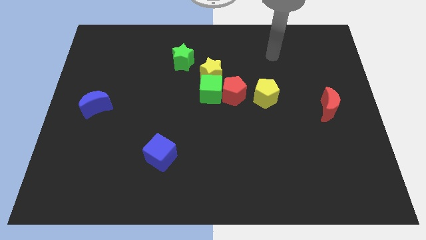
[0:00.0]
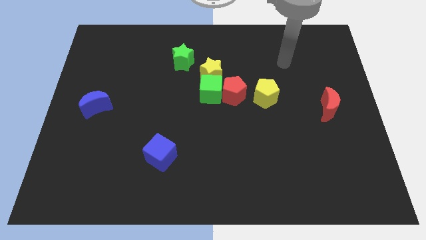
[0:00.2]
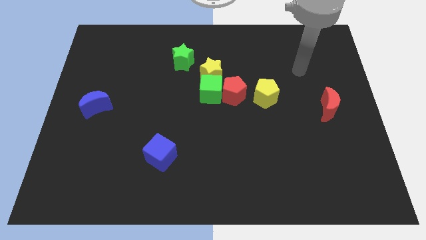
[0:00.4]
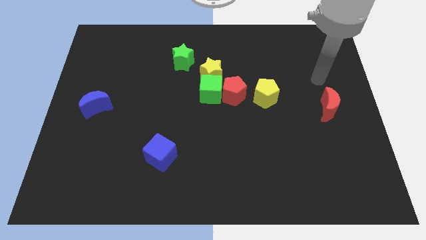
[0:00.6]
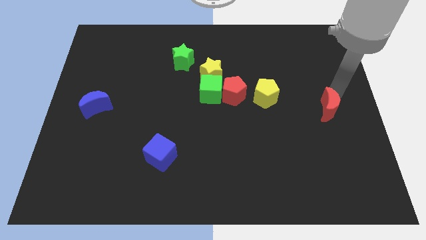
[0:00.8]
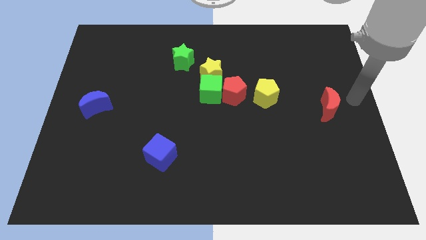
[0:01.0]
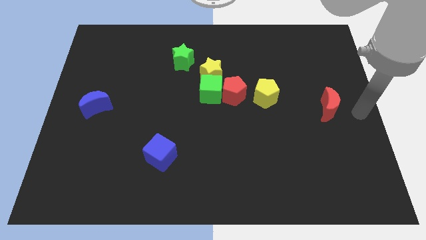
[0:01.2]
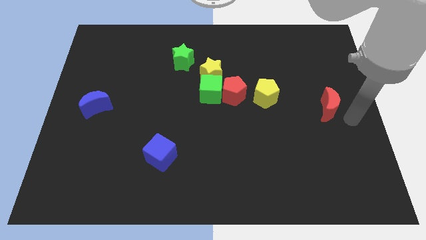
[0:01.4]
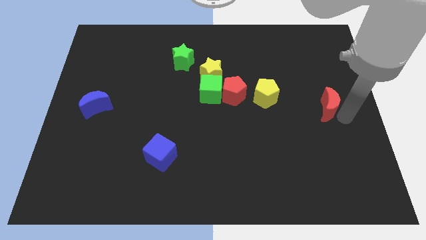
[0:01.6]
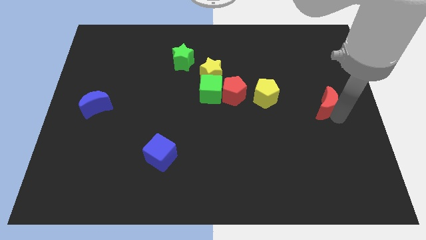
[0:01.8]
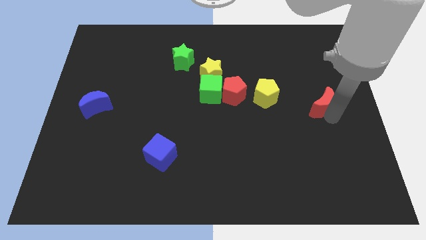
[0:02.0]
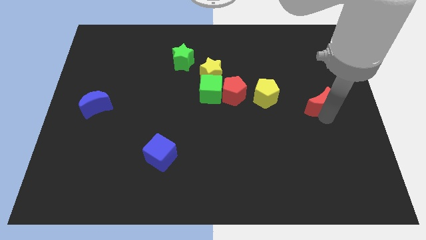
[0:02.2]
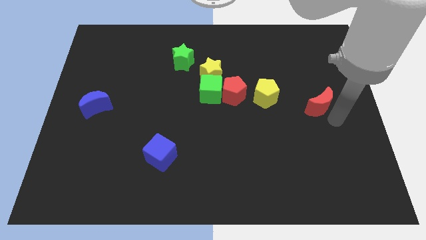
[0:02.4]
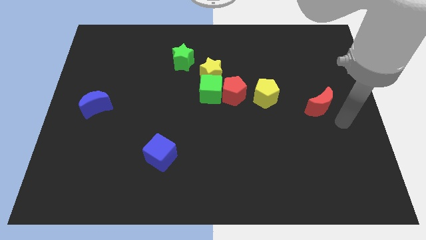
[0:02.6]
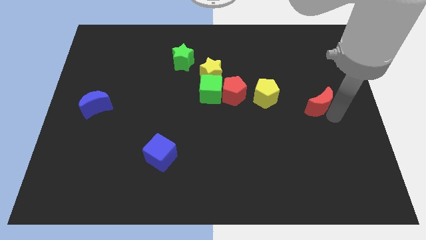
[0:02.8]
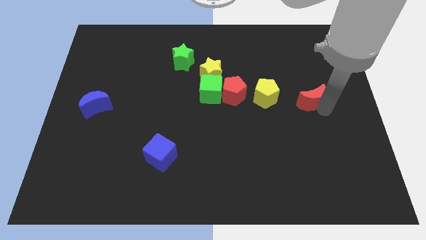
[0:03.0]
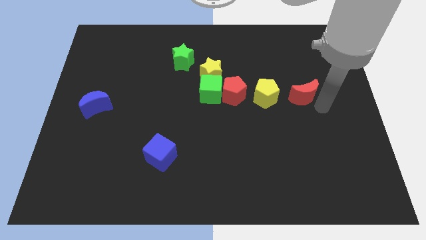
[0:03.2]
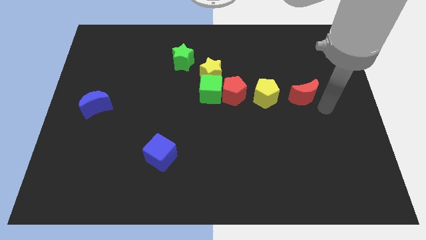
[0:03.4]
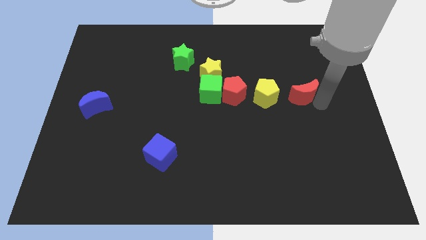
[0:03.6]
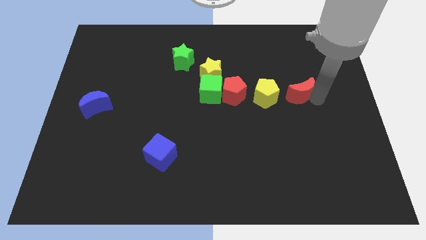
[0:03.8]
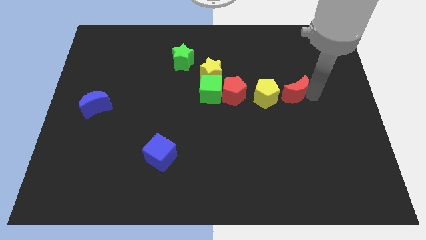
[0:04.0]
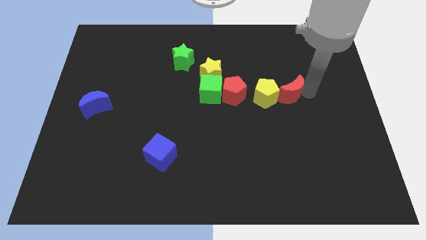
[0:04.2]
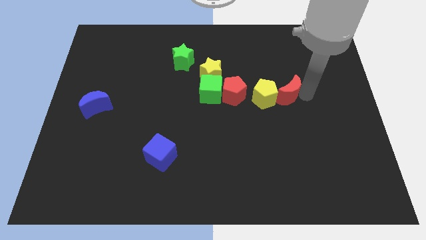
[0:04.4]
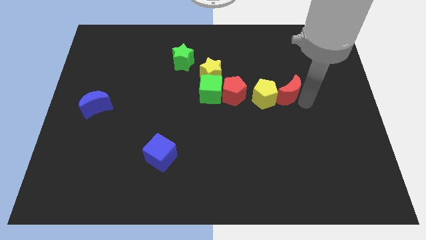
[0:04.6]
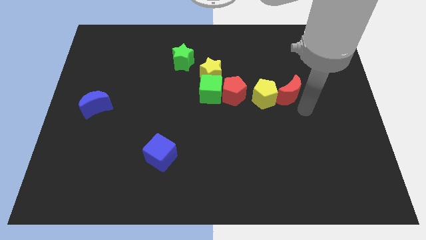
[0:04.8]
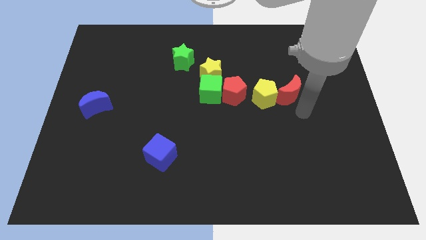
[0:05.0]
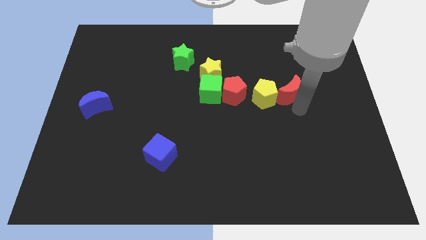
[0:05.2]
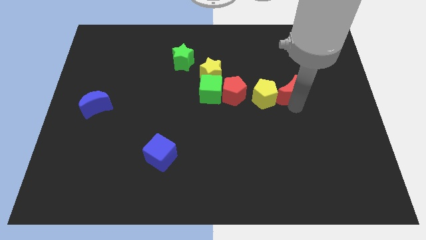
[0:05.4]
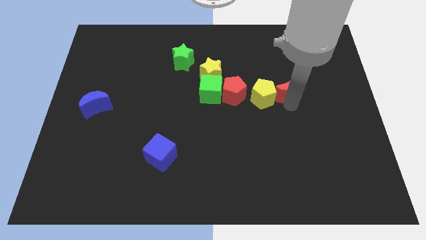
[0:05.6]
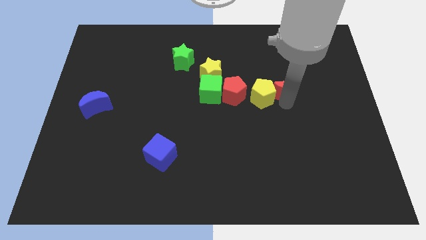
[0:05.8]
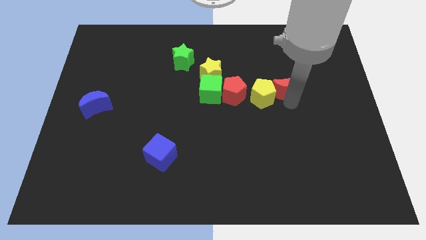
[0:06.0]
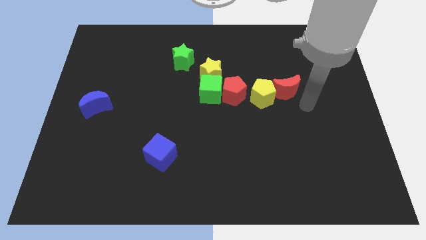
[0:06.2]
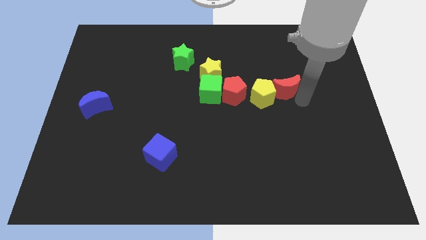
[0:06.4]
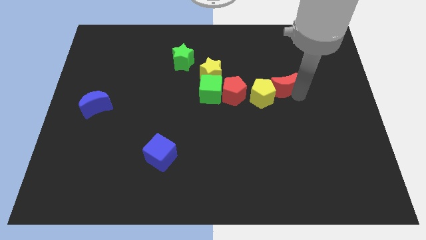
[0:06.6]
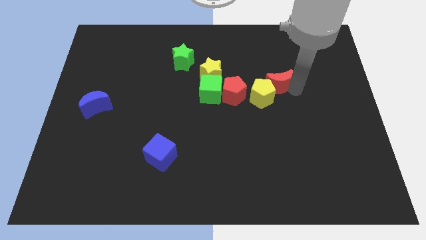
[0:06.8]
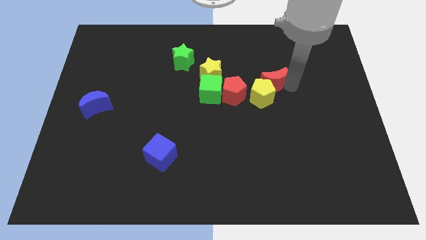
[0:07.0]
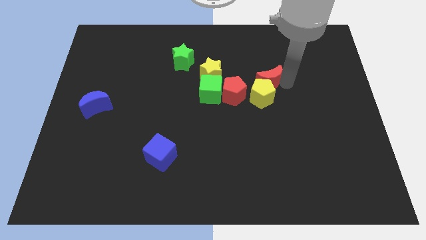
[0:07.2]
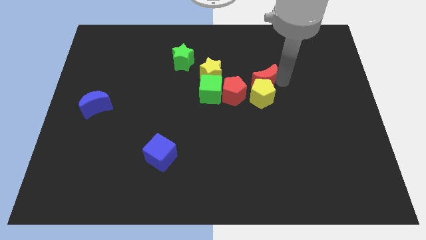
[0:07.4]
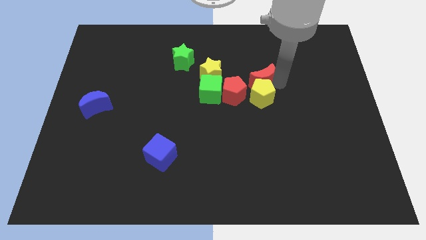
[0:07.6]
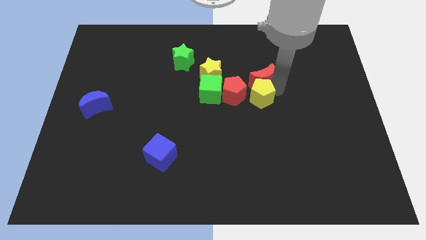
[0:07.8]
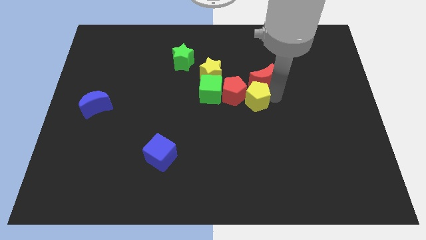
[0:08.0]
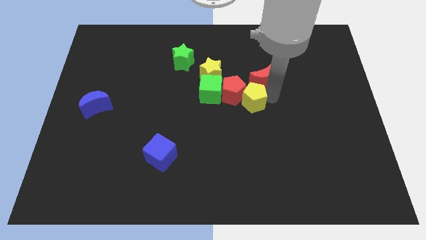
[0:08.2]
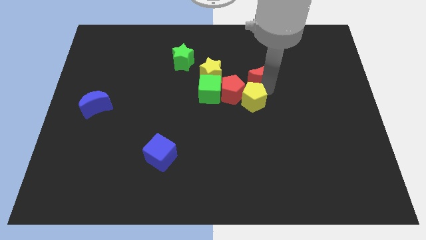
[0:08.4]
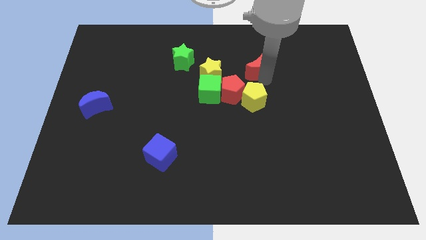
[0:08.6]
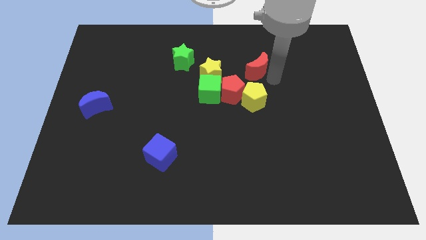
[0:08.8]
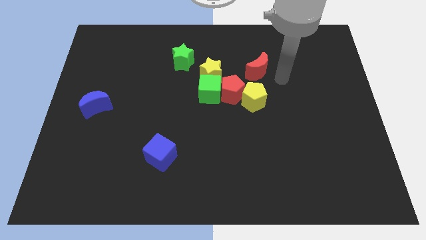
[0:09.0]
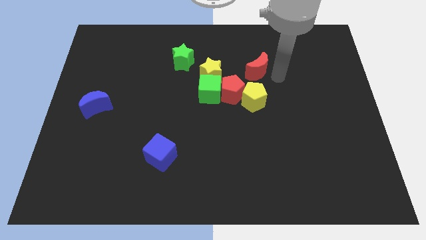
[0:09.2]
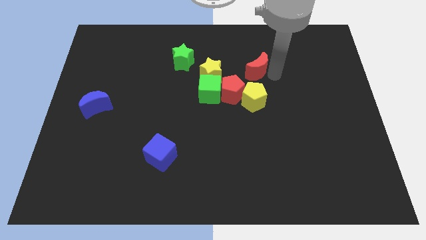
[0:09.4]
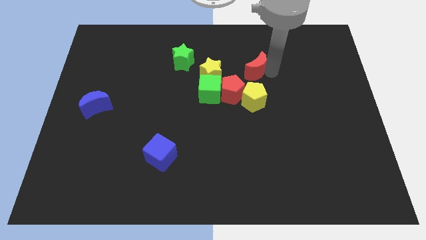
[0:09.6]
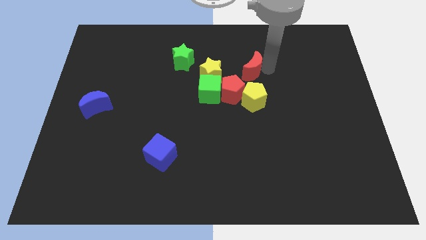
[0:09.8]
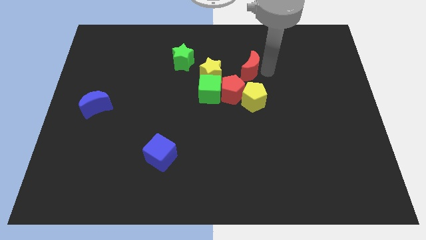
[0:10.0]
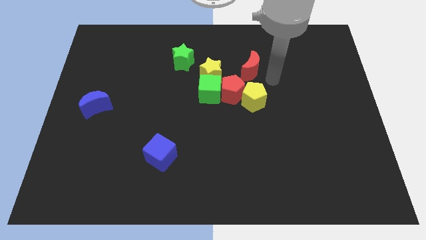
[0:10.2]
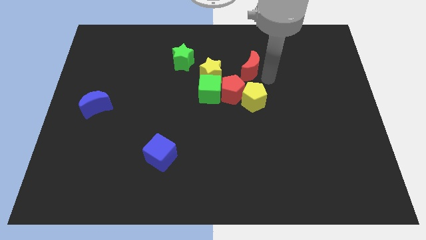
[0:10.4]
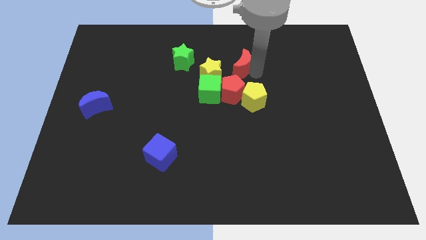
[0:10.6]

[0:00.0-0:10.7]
move the red moon to the top right of the yellow star

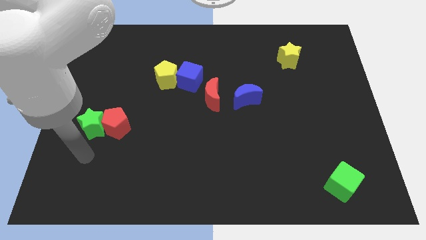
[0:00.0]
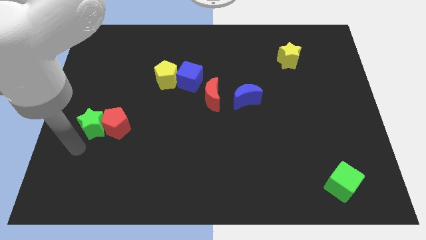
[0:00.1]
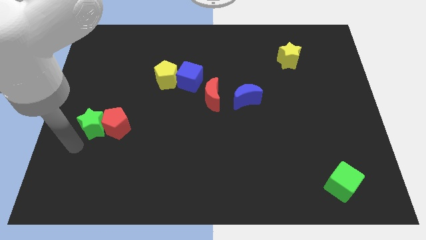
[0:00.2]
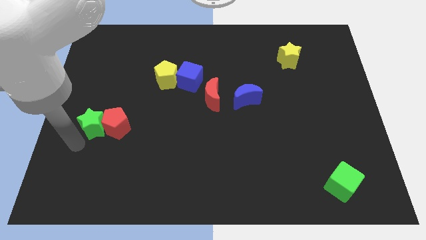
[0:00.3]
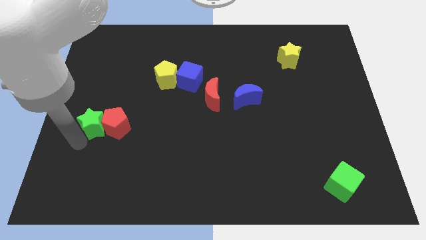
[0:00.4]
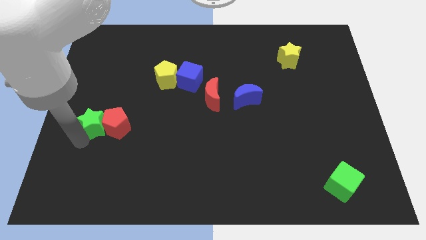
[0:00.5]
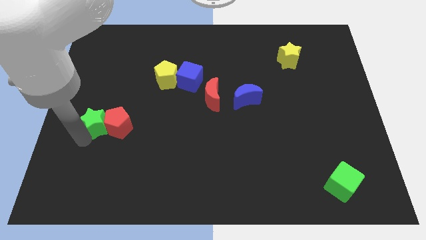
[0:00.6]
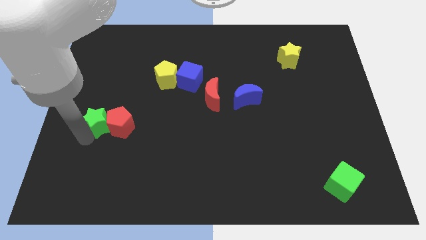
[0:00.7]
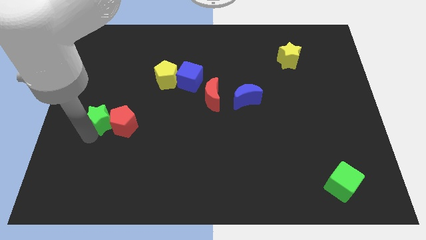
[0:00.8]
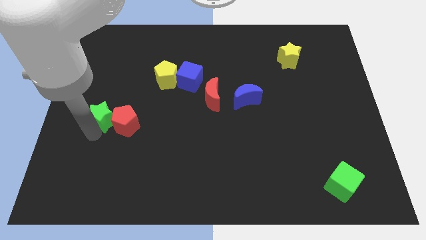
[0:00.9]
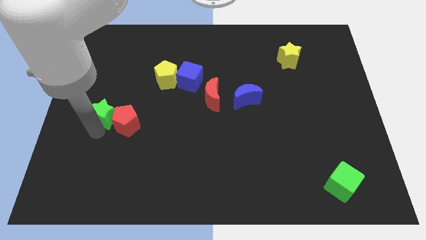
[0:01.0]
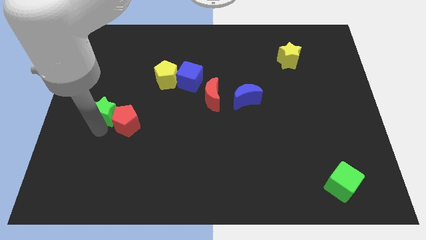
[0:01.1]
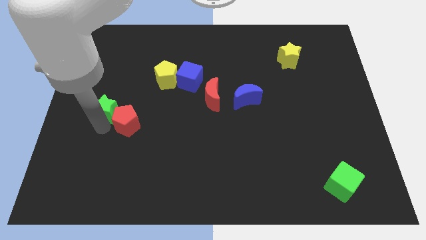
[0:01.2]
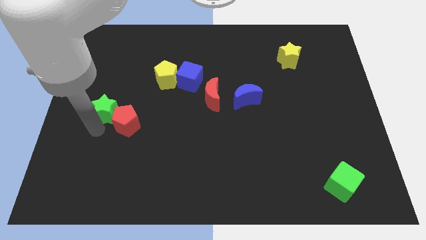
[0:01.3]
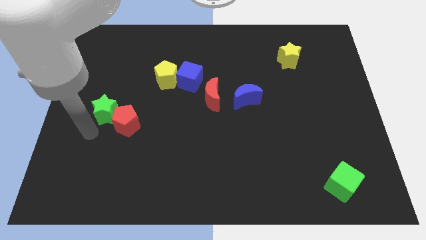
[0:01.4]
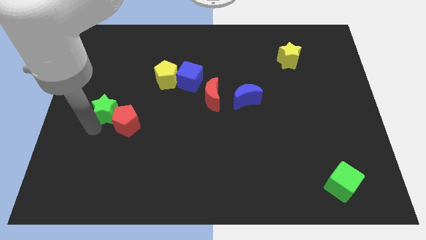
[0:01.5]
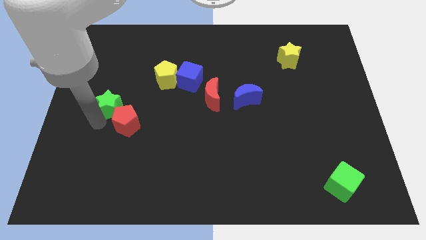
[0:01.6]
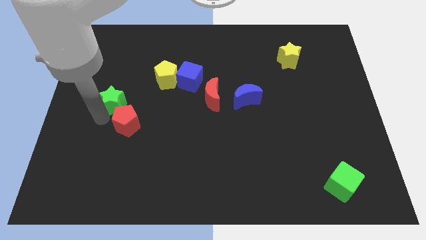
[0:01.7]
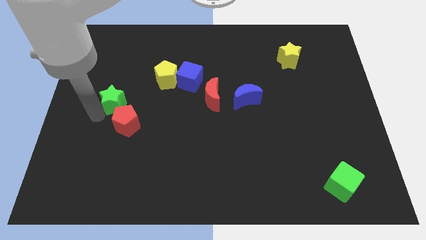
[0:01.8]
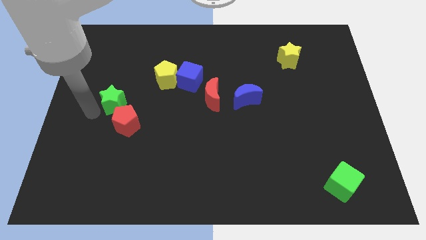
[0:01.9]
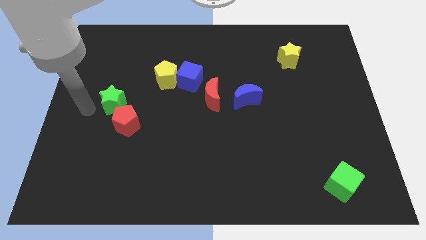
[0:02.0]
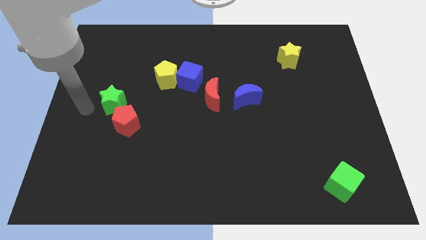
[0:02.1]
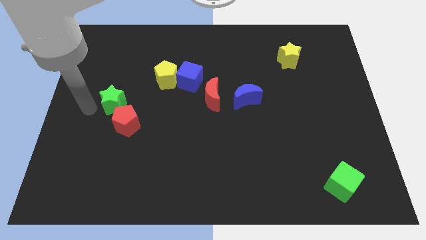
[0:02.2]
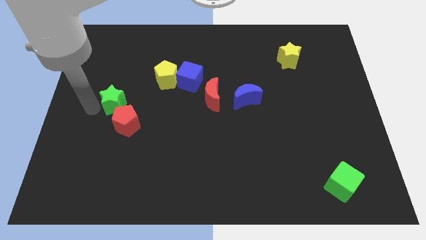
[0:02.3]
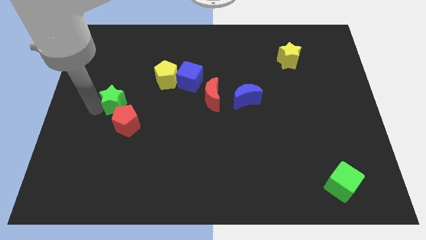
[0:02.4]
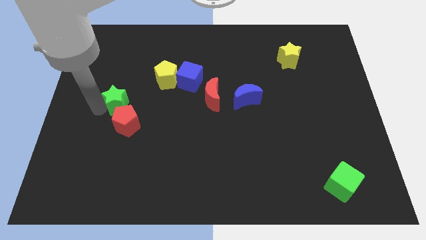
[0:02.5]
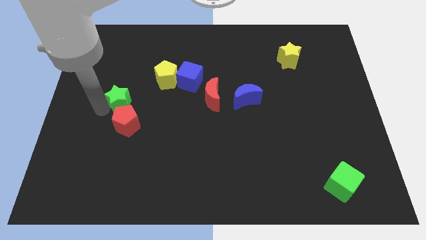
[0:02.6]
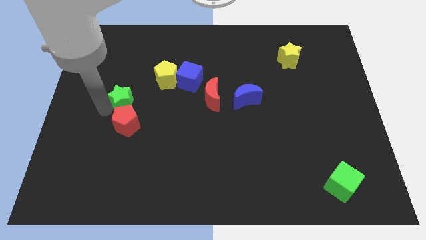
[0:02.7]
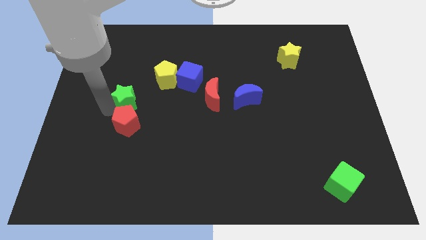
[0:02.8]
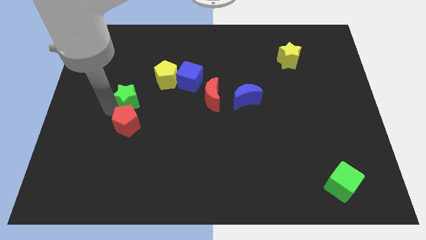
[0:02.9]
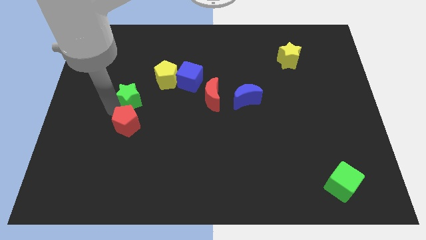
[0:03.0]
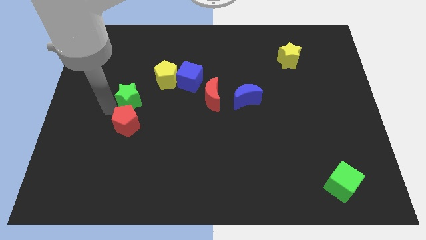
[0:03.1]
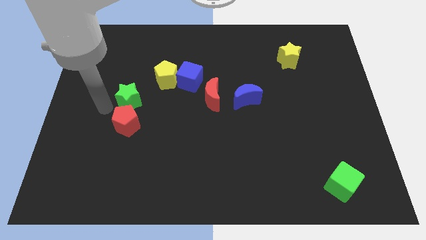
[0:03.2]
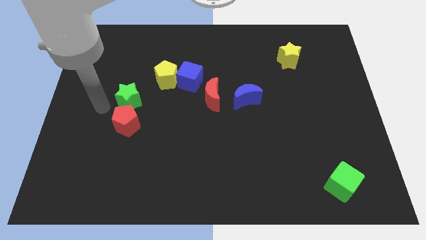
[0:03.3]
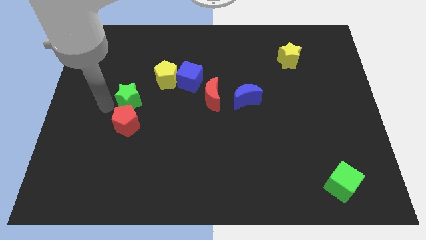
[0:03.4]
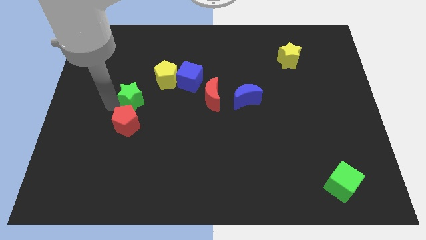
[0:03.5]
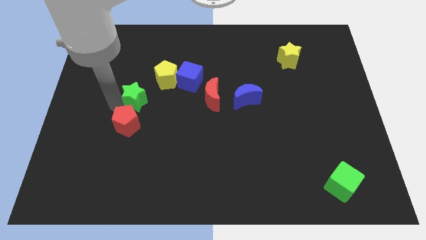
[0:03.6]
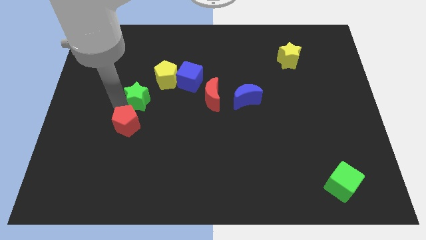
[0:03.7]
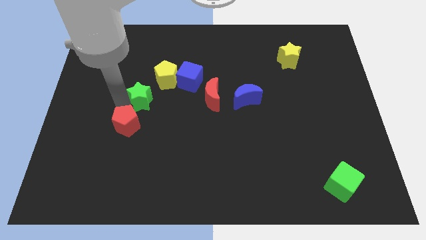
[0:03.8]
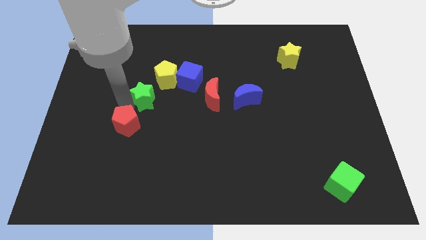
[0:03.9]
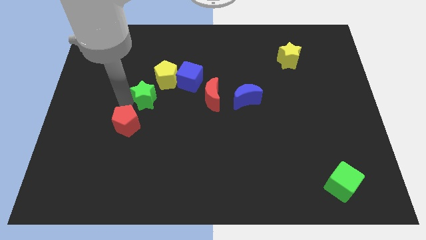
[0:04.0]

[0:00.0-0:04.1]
put the green star to the bottom of the yellow pentagon
